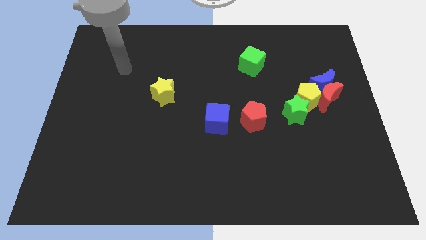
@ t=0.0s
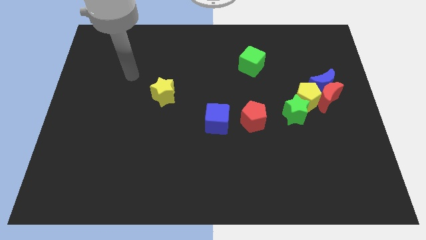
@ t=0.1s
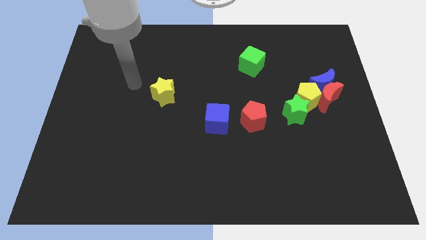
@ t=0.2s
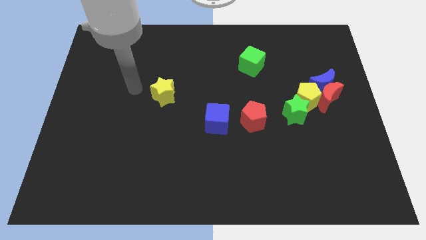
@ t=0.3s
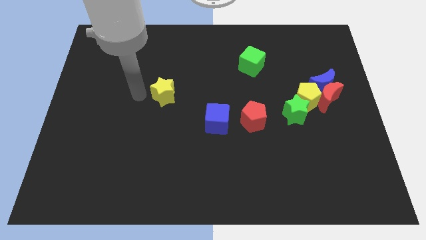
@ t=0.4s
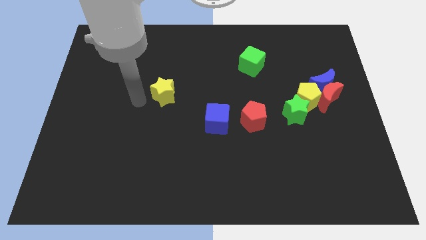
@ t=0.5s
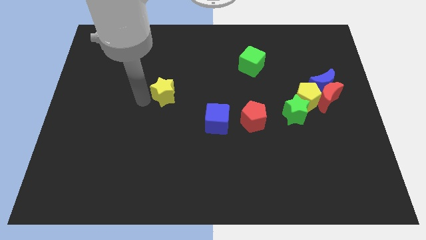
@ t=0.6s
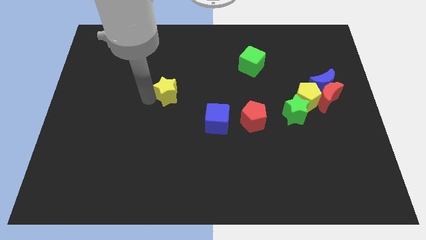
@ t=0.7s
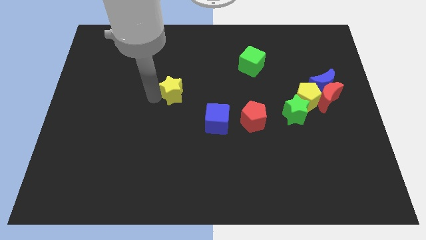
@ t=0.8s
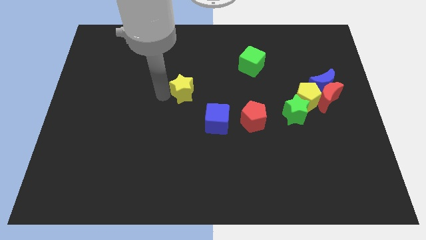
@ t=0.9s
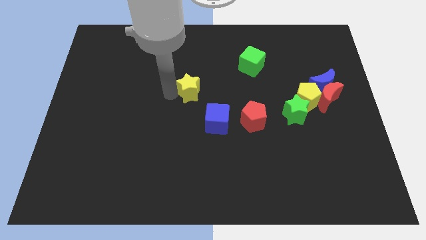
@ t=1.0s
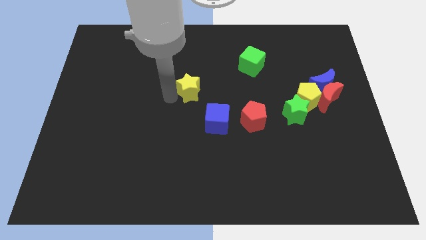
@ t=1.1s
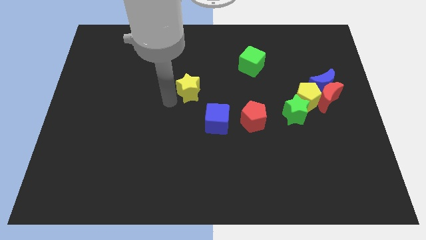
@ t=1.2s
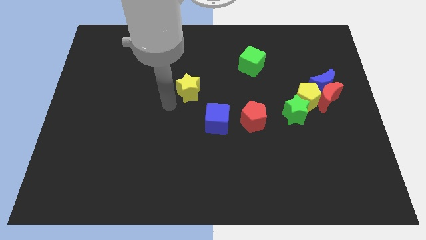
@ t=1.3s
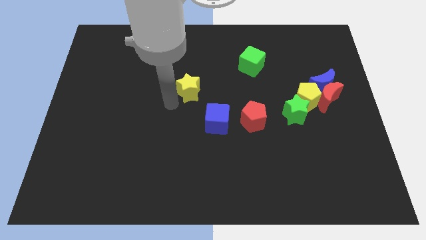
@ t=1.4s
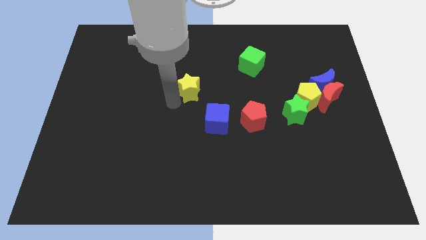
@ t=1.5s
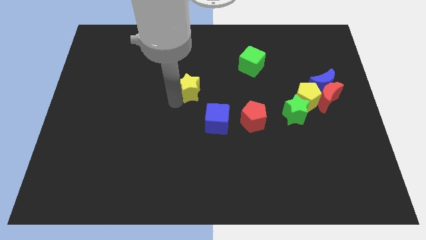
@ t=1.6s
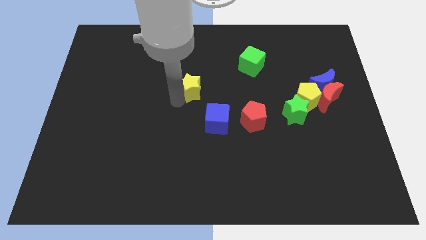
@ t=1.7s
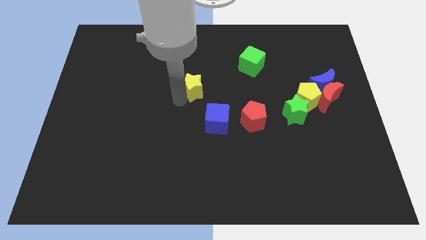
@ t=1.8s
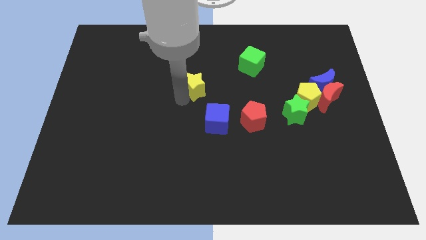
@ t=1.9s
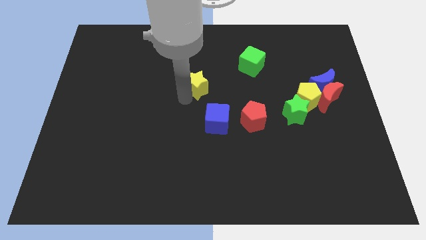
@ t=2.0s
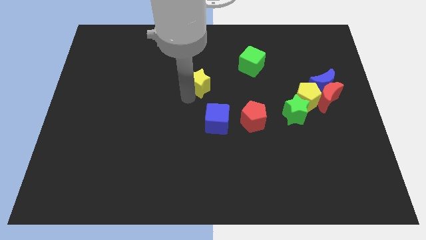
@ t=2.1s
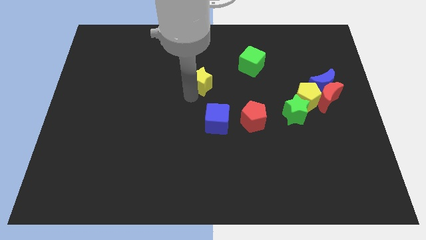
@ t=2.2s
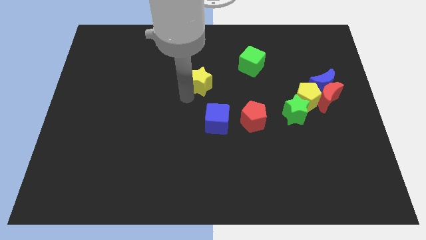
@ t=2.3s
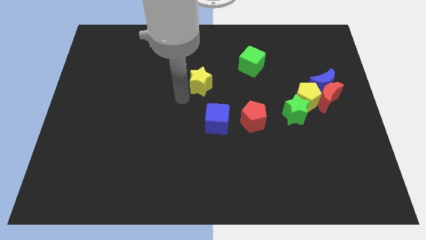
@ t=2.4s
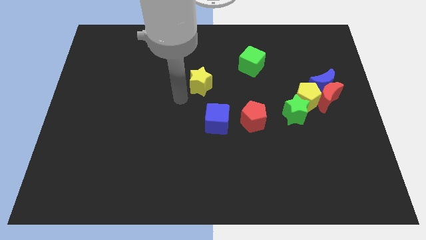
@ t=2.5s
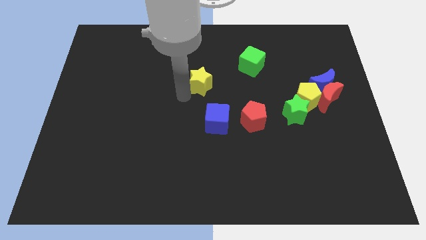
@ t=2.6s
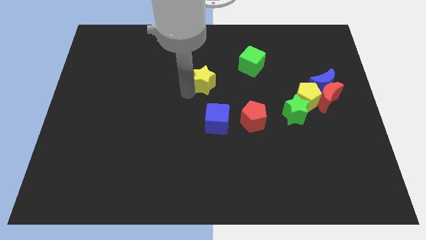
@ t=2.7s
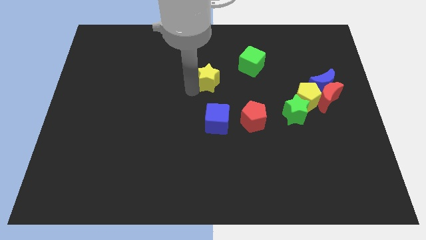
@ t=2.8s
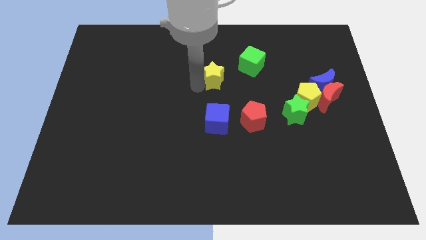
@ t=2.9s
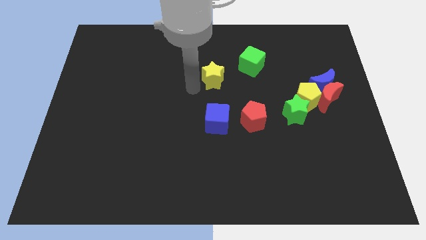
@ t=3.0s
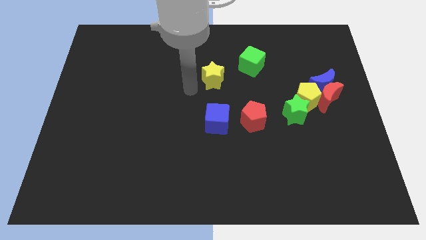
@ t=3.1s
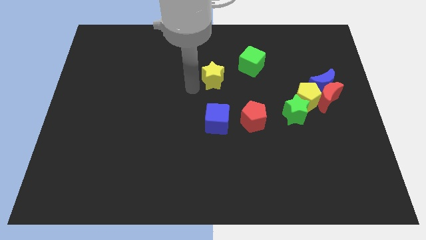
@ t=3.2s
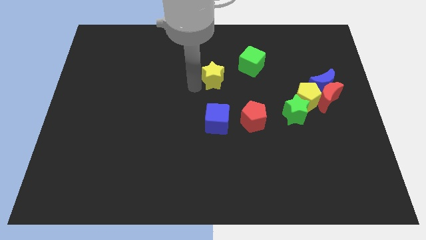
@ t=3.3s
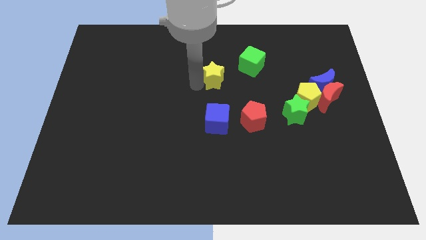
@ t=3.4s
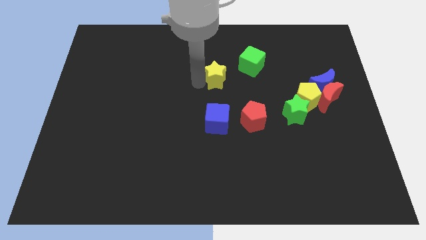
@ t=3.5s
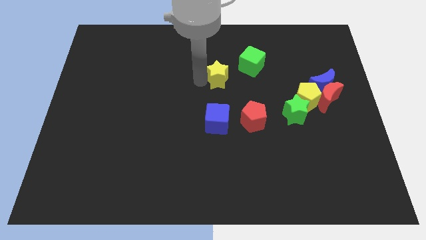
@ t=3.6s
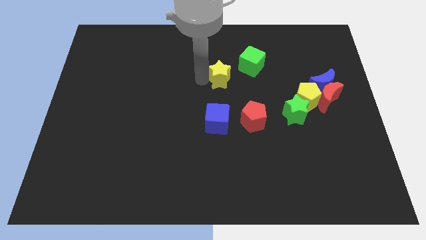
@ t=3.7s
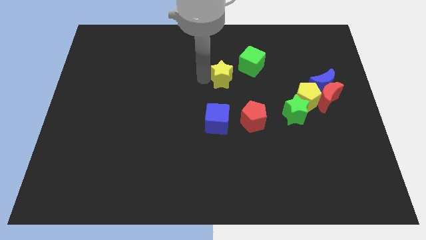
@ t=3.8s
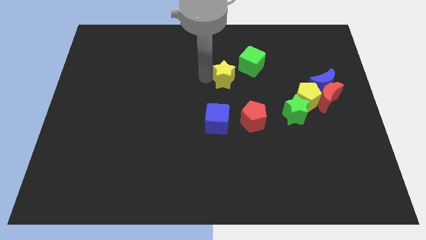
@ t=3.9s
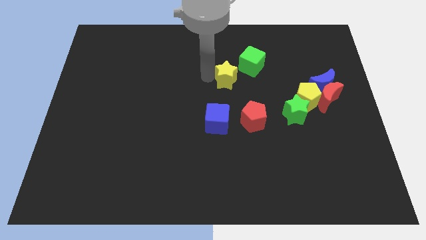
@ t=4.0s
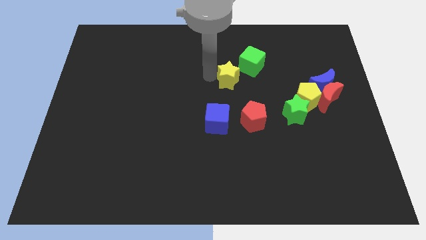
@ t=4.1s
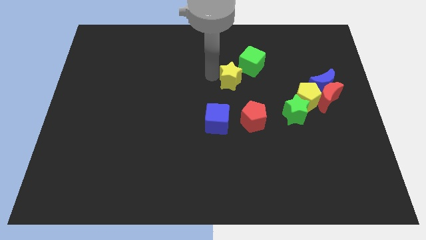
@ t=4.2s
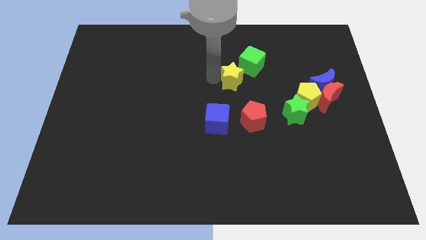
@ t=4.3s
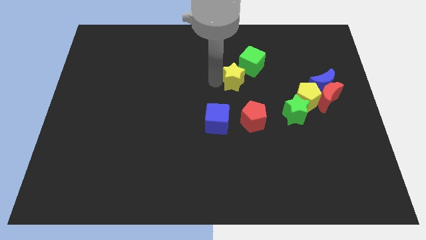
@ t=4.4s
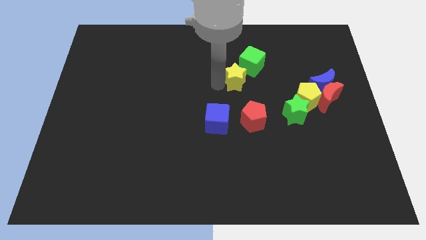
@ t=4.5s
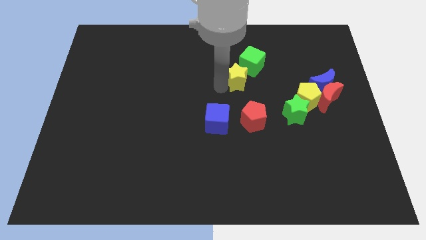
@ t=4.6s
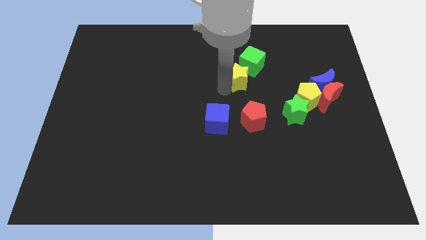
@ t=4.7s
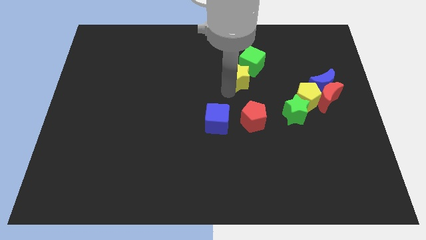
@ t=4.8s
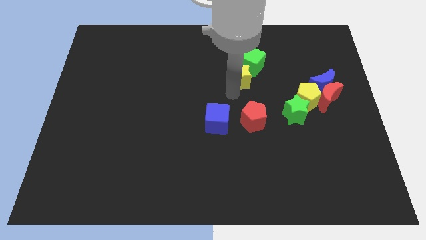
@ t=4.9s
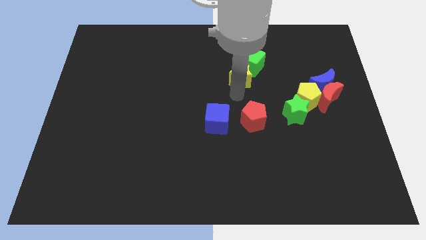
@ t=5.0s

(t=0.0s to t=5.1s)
put the yellow star to the green cube

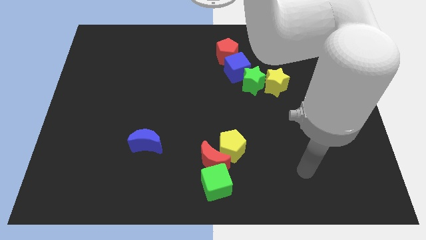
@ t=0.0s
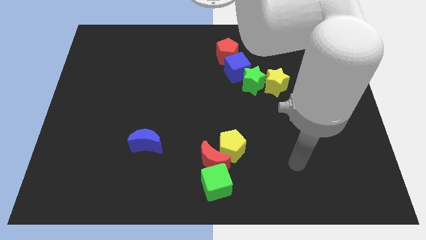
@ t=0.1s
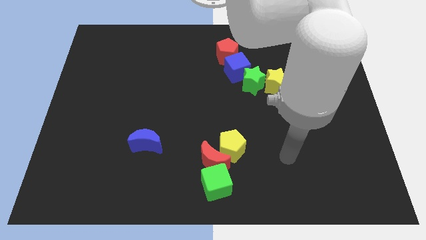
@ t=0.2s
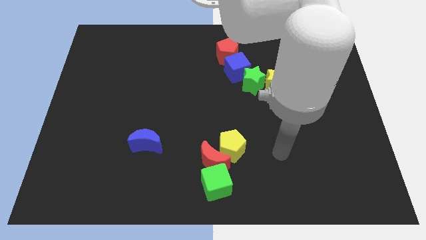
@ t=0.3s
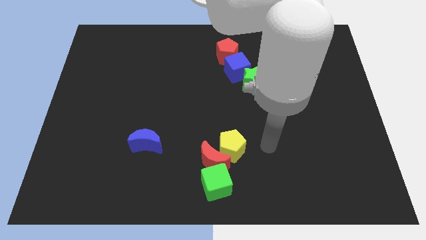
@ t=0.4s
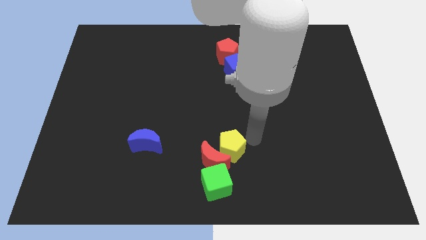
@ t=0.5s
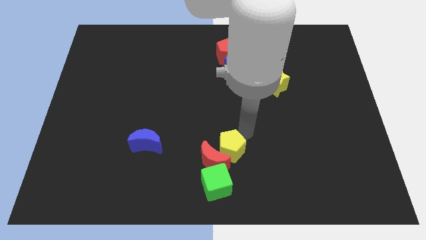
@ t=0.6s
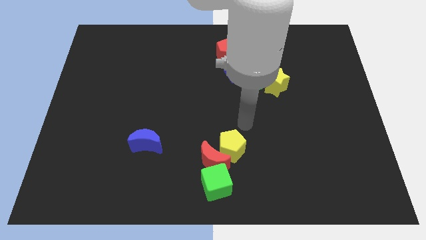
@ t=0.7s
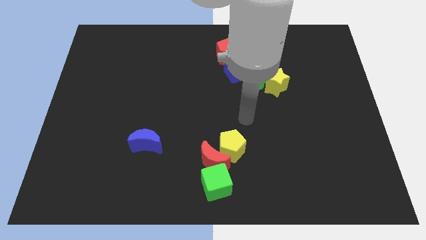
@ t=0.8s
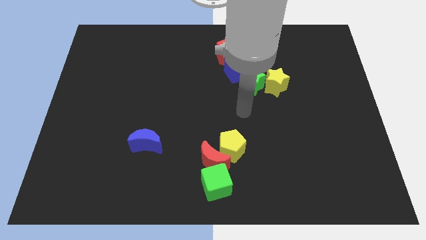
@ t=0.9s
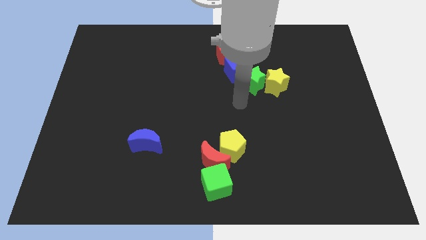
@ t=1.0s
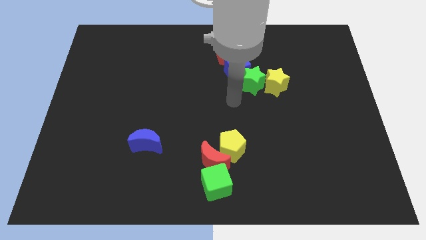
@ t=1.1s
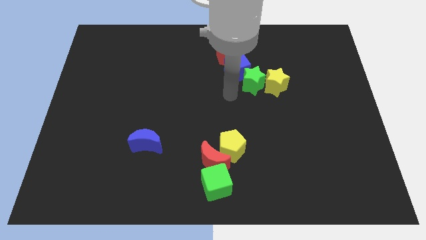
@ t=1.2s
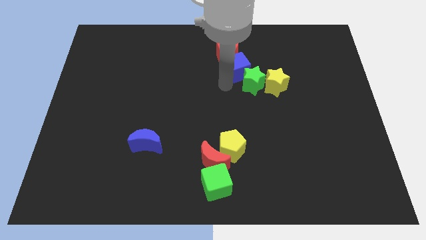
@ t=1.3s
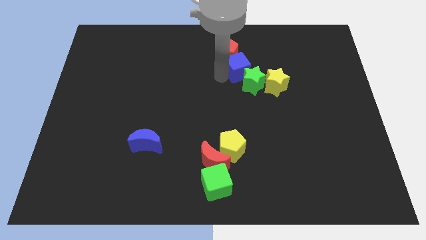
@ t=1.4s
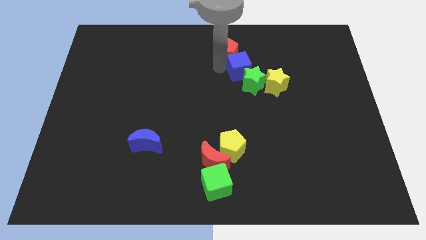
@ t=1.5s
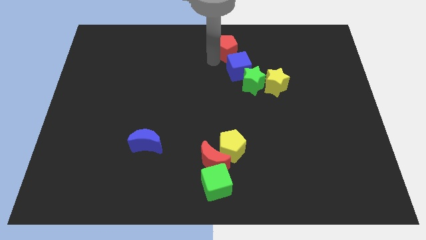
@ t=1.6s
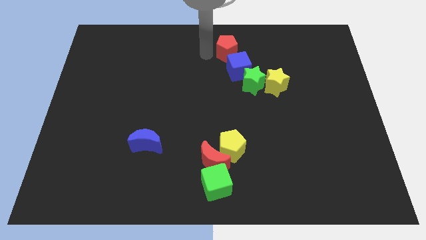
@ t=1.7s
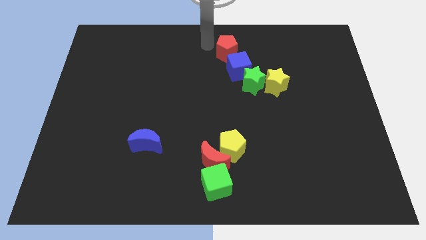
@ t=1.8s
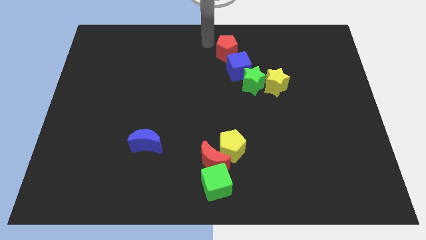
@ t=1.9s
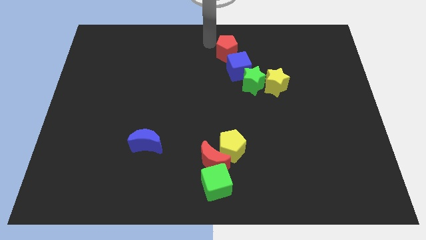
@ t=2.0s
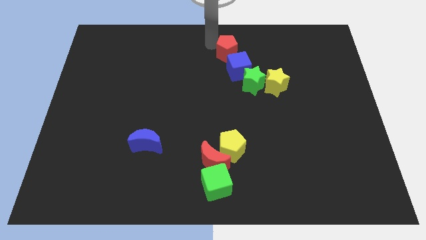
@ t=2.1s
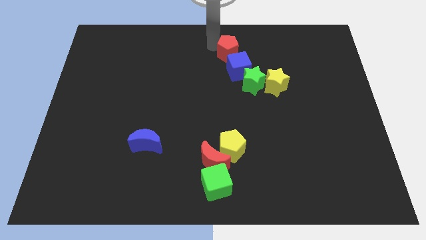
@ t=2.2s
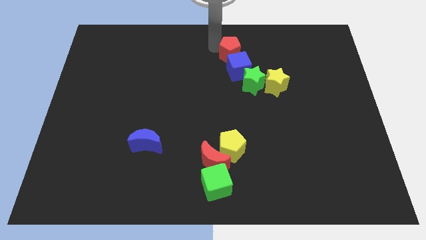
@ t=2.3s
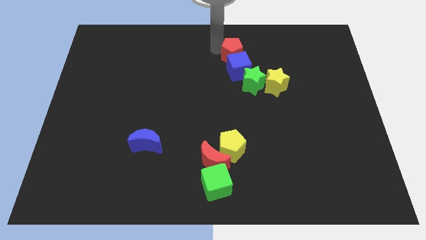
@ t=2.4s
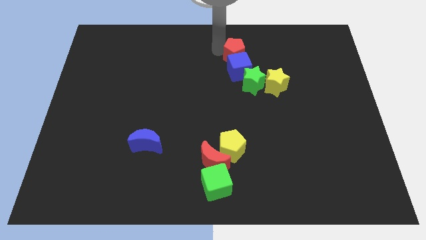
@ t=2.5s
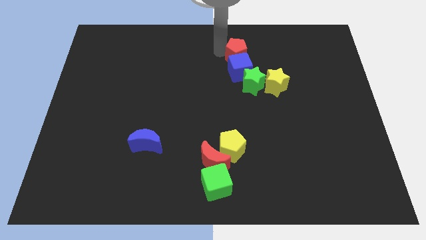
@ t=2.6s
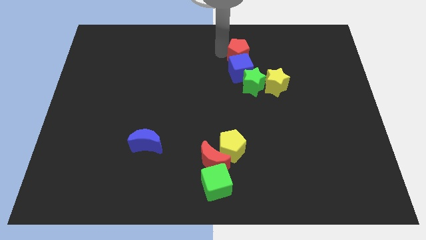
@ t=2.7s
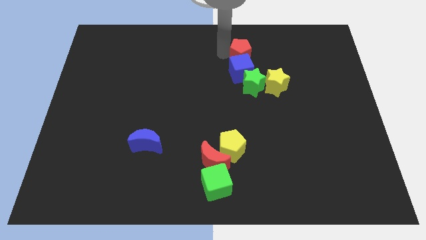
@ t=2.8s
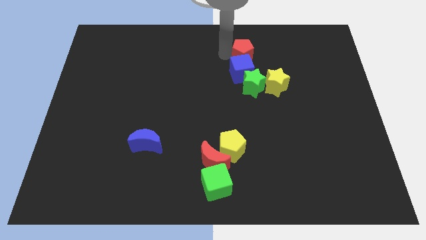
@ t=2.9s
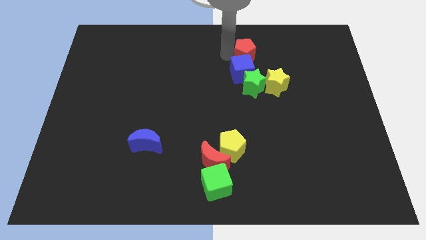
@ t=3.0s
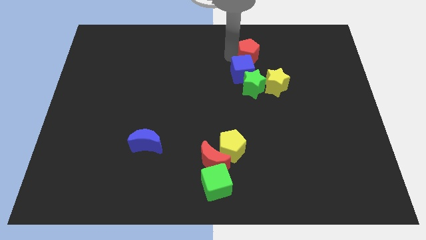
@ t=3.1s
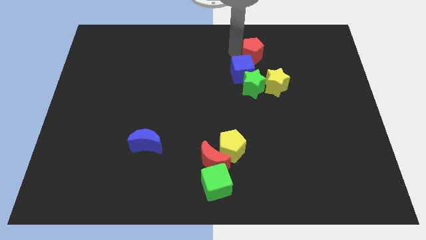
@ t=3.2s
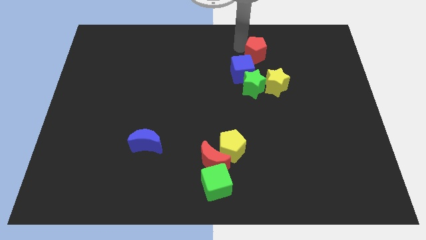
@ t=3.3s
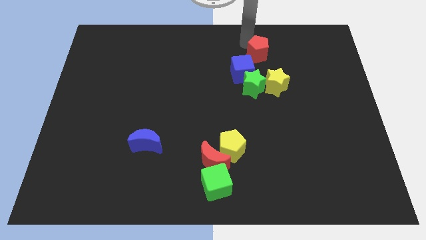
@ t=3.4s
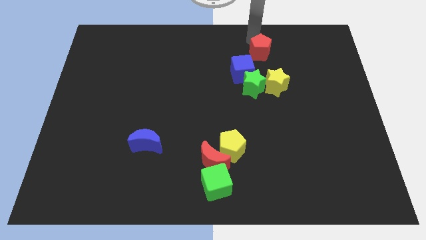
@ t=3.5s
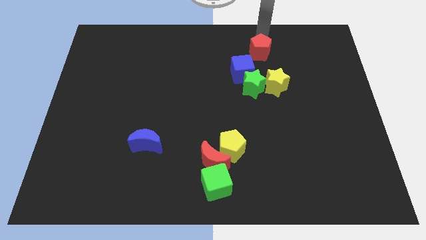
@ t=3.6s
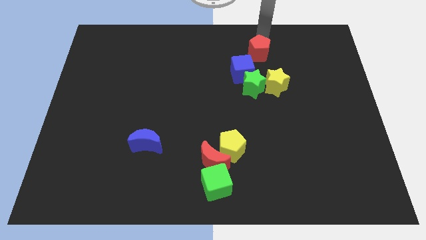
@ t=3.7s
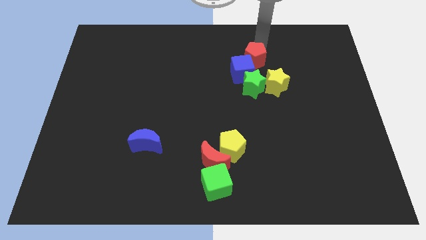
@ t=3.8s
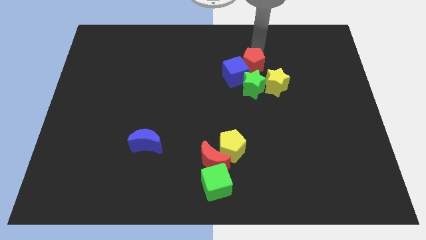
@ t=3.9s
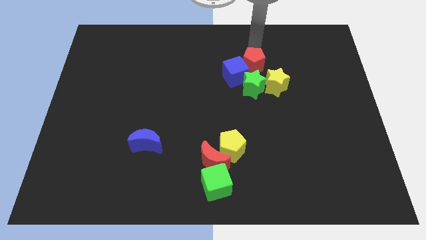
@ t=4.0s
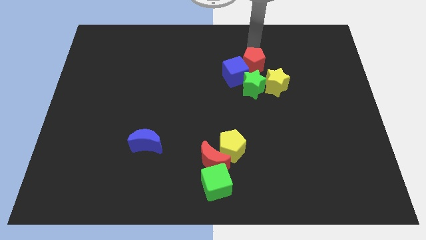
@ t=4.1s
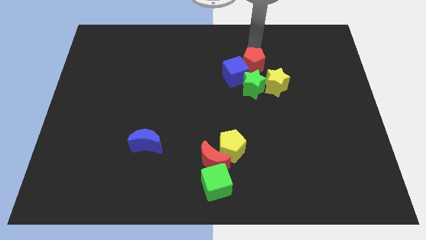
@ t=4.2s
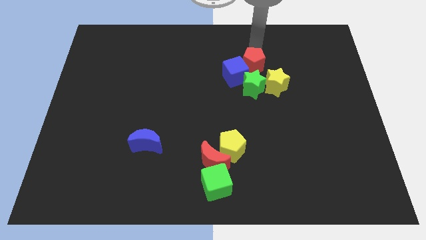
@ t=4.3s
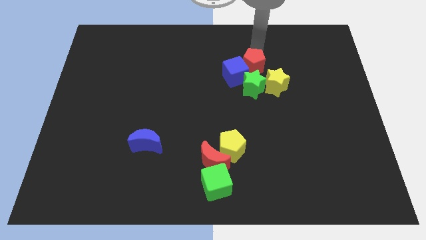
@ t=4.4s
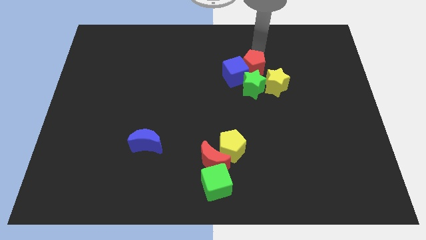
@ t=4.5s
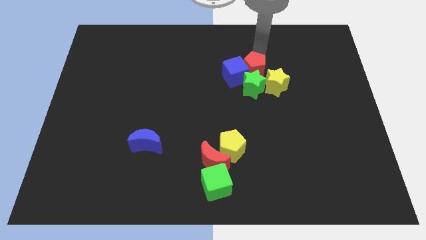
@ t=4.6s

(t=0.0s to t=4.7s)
push the red pentagon towards the green star
